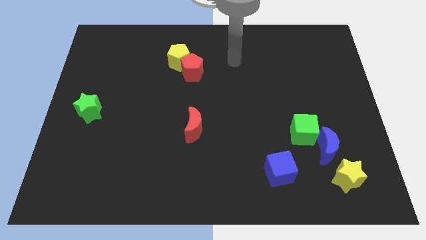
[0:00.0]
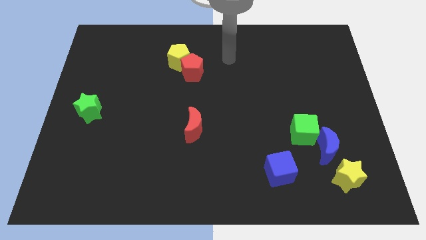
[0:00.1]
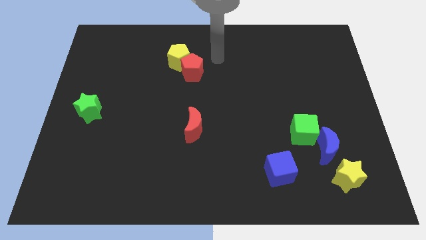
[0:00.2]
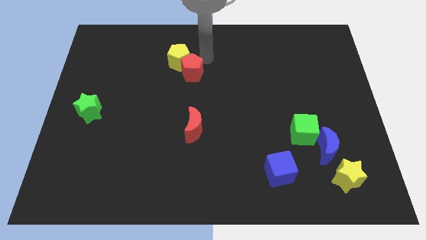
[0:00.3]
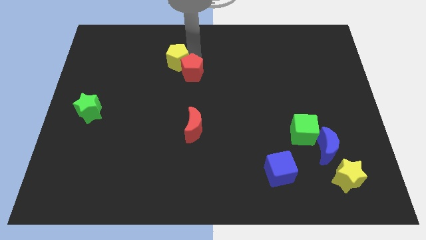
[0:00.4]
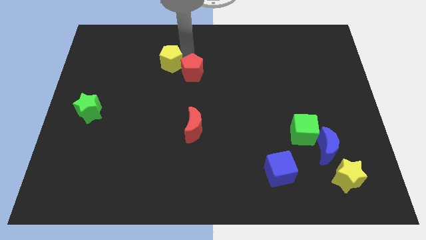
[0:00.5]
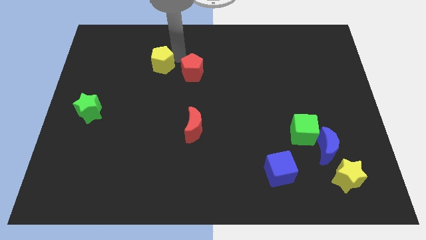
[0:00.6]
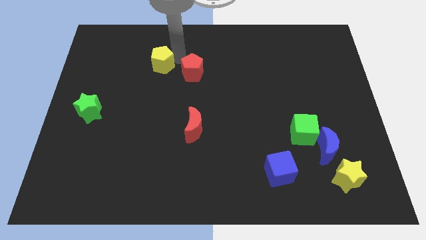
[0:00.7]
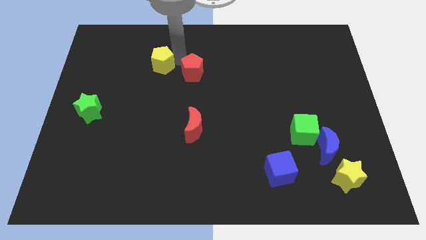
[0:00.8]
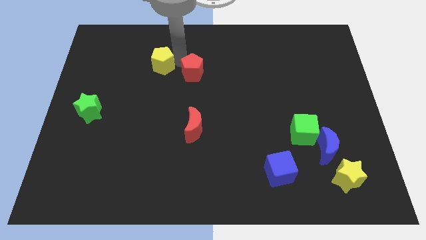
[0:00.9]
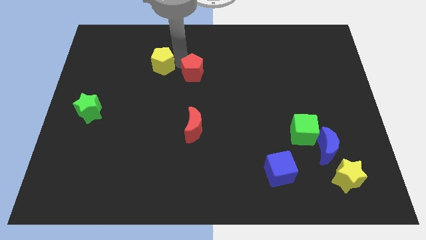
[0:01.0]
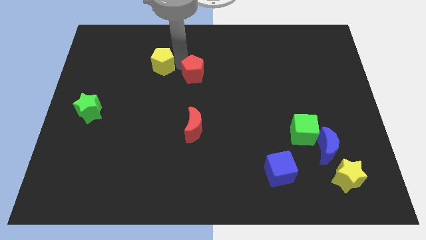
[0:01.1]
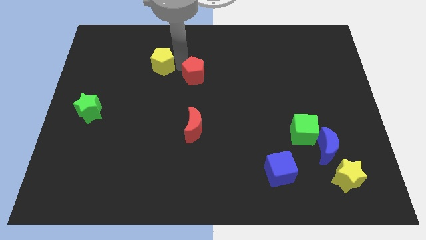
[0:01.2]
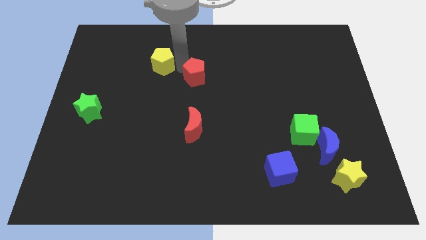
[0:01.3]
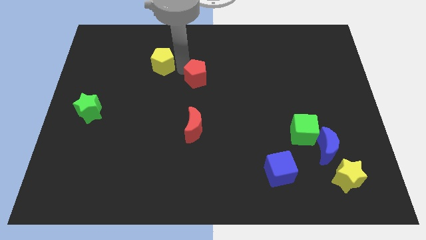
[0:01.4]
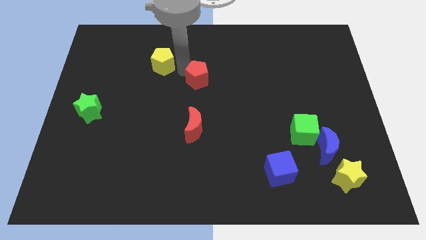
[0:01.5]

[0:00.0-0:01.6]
move the red pentagon away from the yellow pentagon

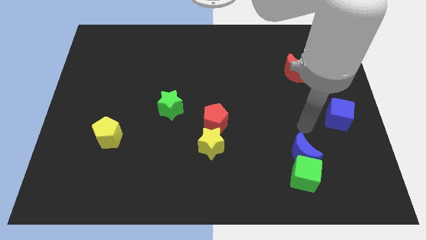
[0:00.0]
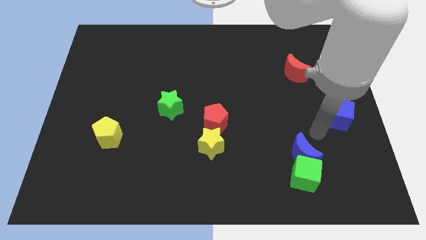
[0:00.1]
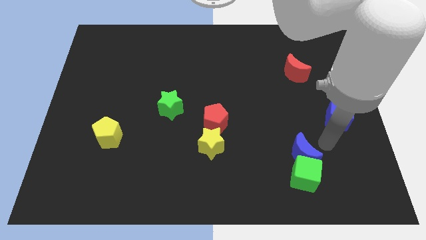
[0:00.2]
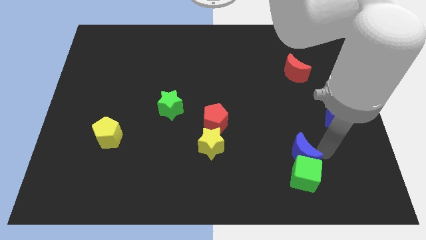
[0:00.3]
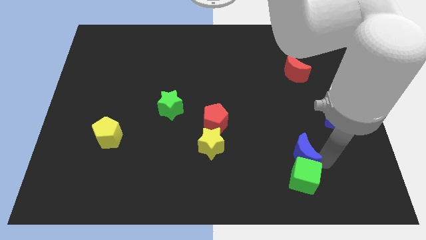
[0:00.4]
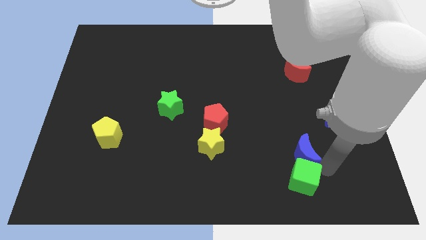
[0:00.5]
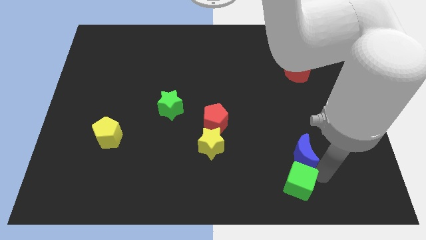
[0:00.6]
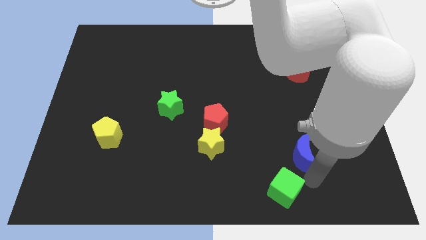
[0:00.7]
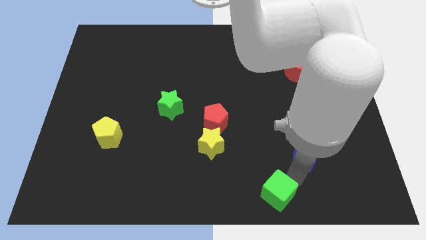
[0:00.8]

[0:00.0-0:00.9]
pull the blue moon apart from the green cube

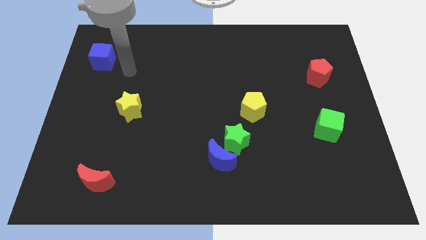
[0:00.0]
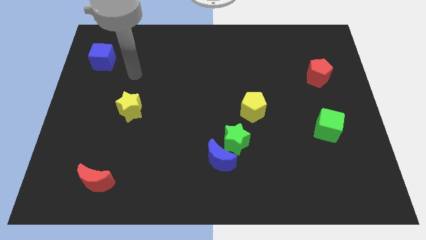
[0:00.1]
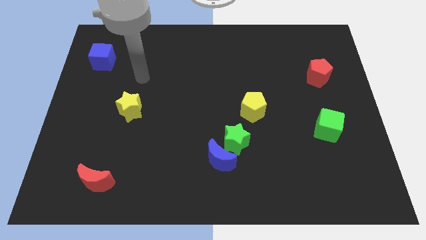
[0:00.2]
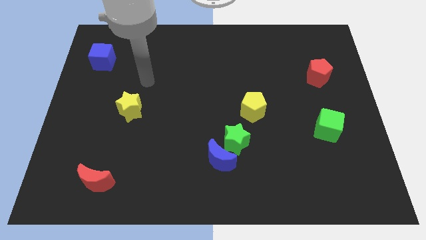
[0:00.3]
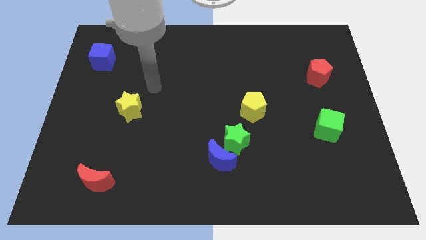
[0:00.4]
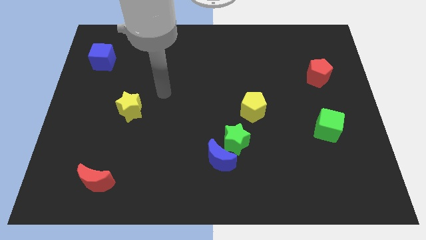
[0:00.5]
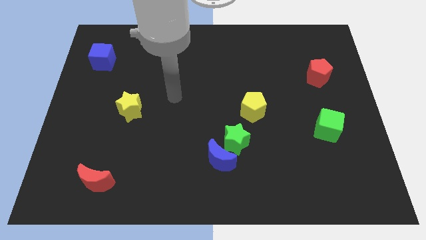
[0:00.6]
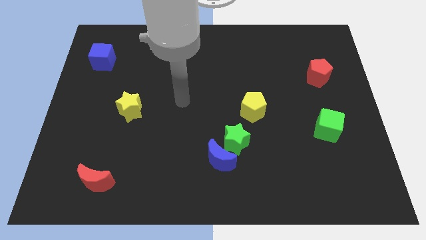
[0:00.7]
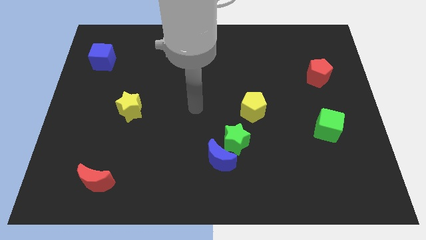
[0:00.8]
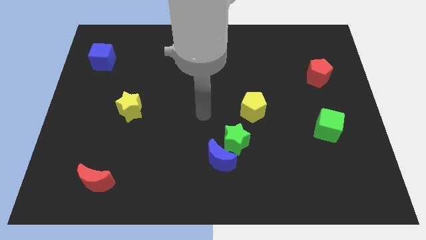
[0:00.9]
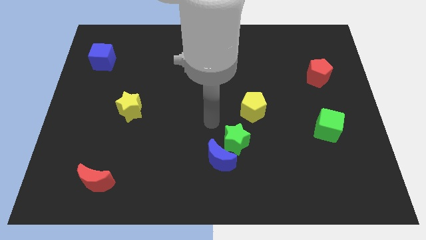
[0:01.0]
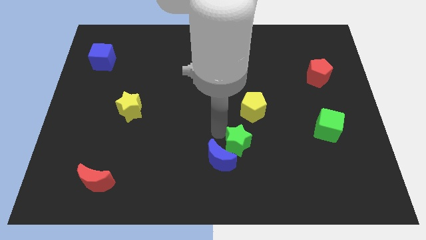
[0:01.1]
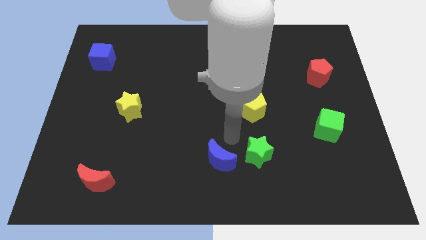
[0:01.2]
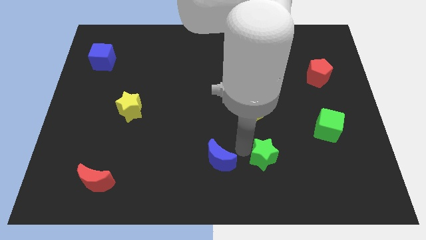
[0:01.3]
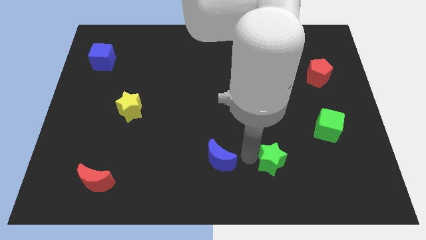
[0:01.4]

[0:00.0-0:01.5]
move the blue moon away from the green star

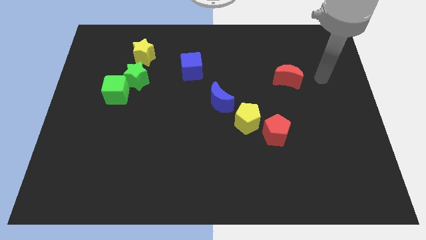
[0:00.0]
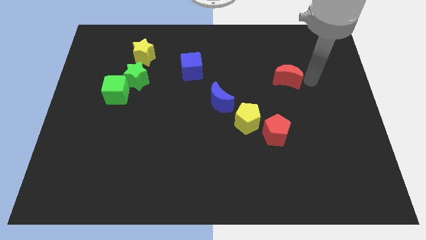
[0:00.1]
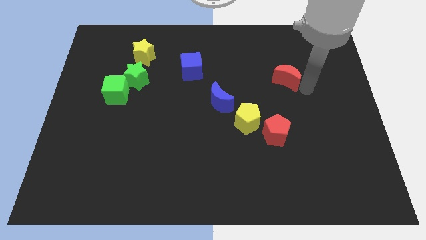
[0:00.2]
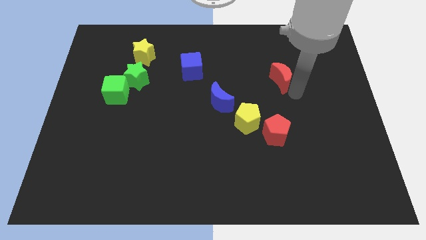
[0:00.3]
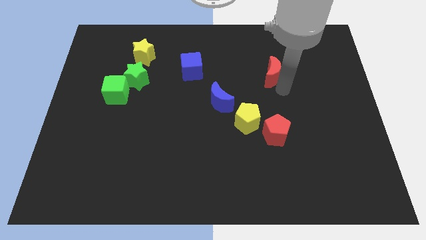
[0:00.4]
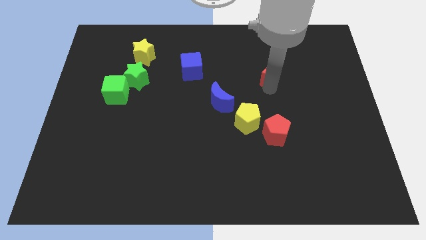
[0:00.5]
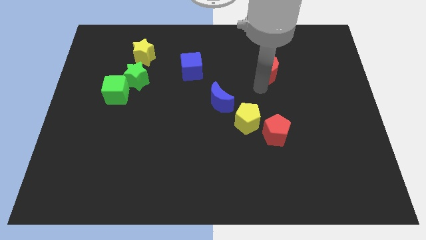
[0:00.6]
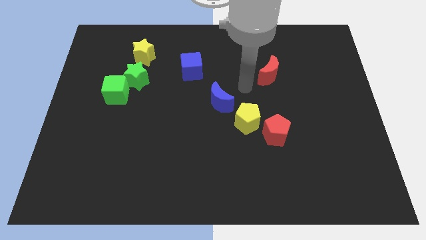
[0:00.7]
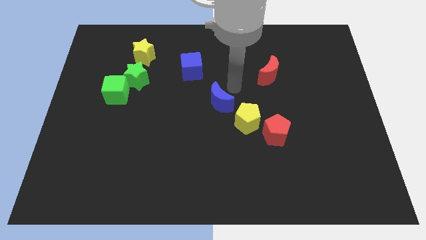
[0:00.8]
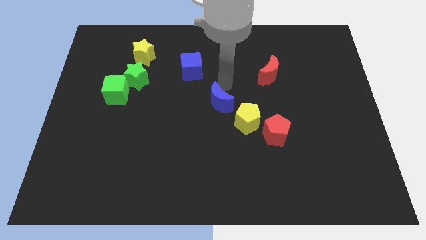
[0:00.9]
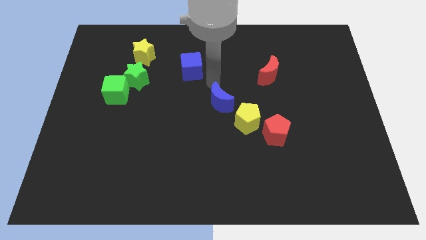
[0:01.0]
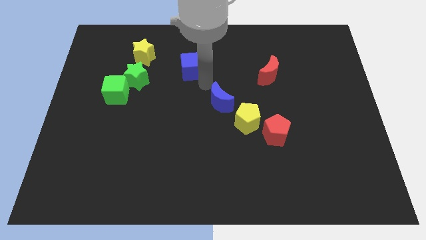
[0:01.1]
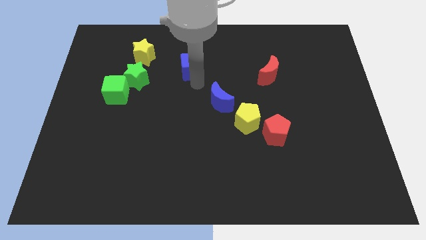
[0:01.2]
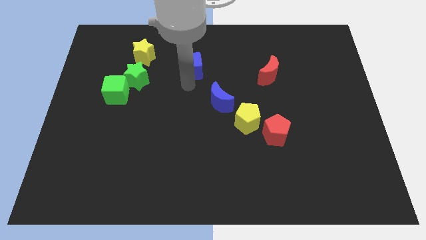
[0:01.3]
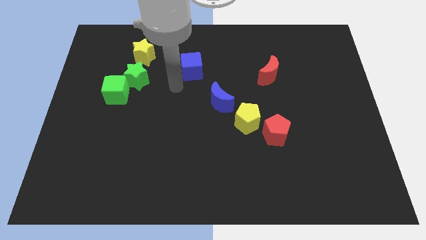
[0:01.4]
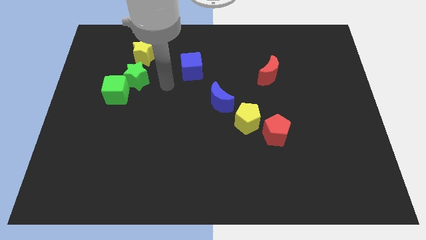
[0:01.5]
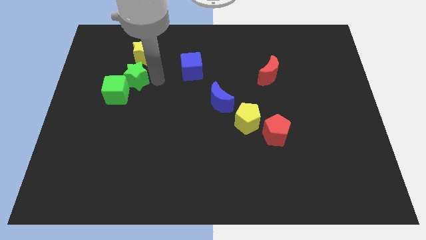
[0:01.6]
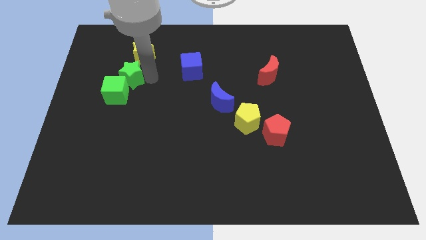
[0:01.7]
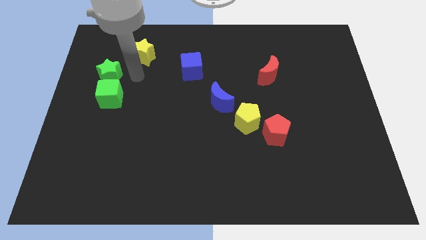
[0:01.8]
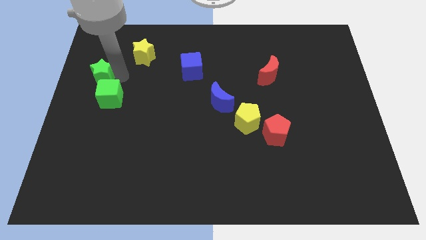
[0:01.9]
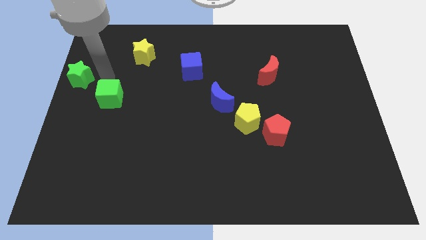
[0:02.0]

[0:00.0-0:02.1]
pull the green cube apart from the green star

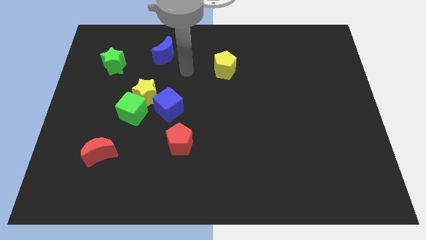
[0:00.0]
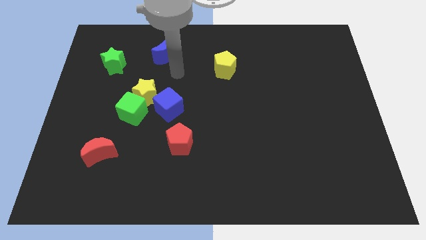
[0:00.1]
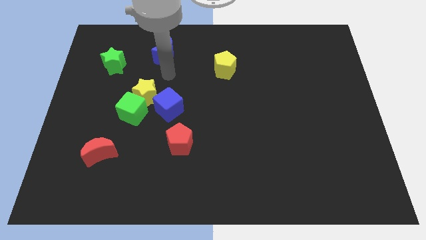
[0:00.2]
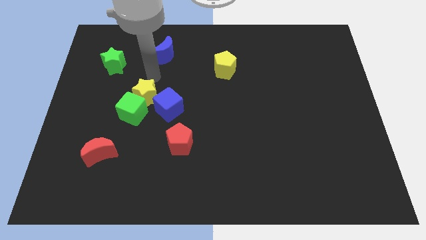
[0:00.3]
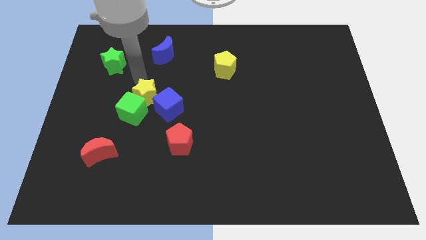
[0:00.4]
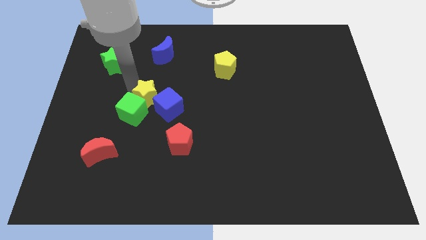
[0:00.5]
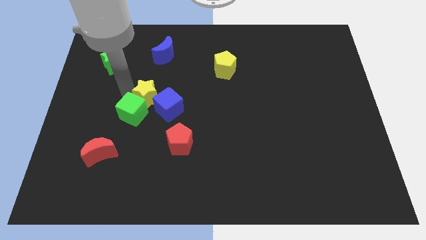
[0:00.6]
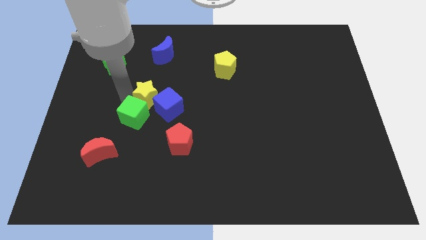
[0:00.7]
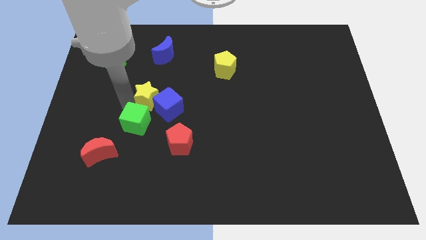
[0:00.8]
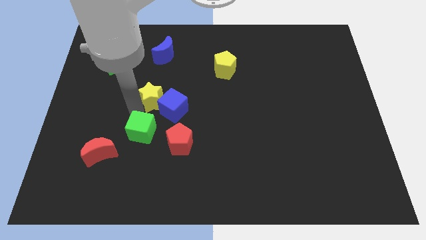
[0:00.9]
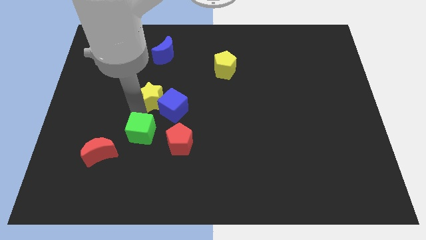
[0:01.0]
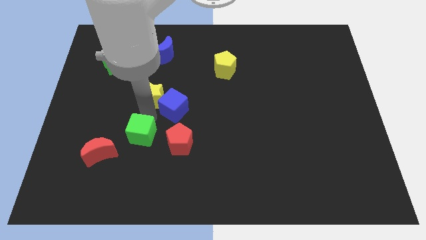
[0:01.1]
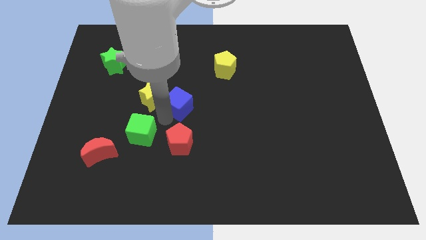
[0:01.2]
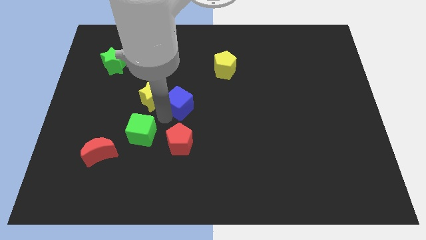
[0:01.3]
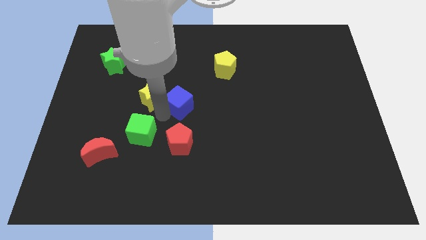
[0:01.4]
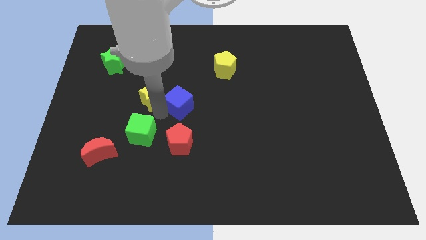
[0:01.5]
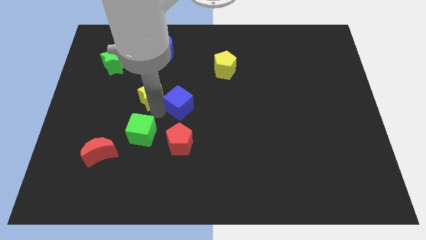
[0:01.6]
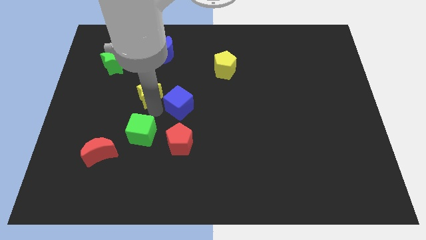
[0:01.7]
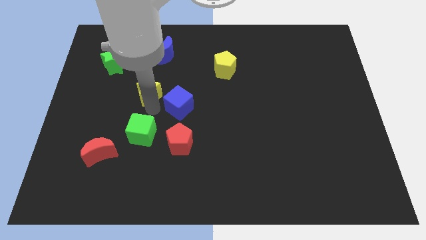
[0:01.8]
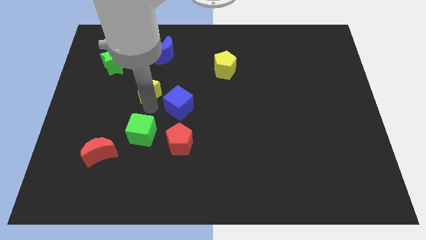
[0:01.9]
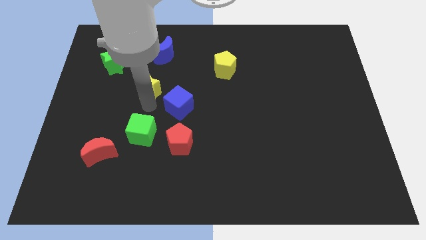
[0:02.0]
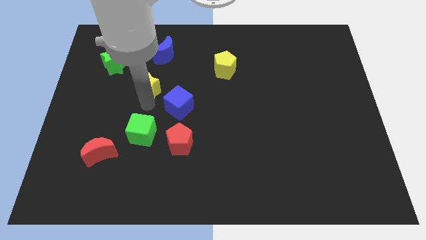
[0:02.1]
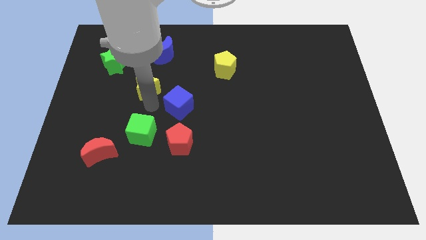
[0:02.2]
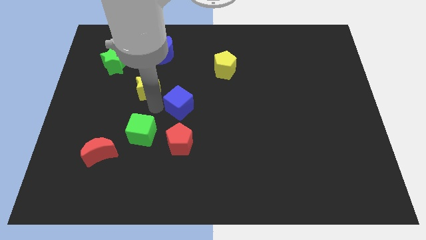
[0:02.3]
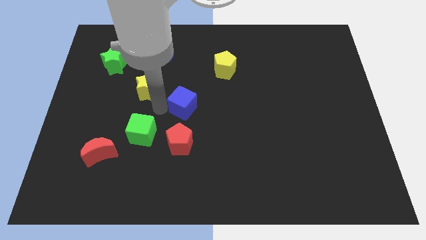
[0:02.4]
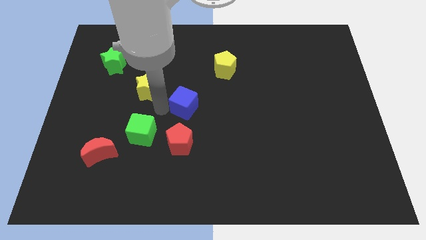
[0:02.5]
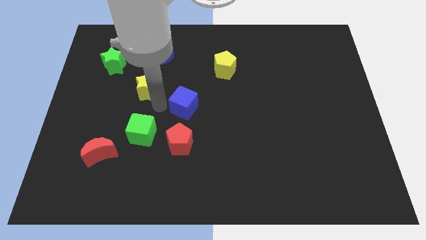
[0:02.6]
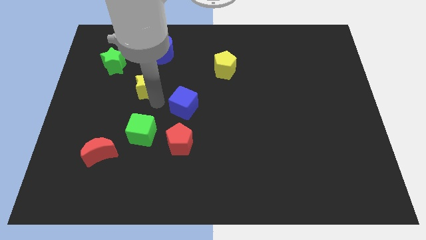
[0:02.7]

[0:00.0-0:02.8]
separate the yellow star from the green cube and blue cube

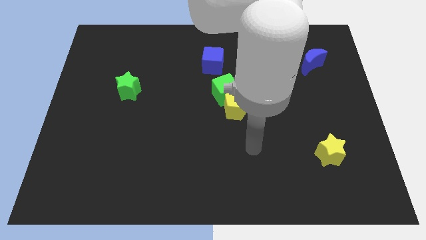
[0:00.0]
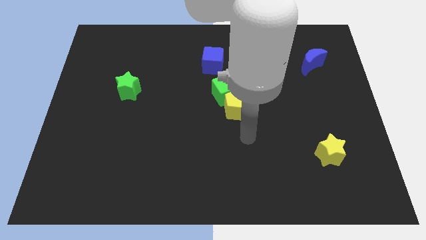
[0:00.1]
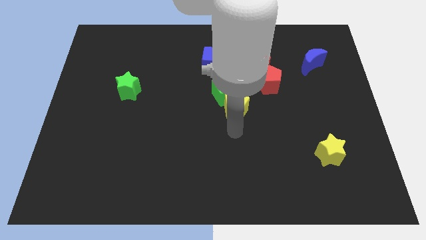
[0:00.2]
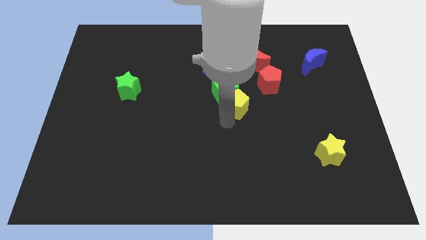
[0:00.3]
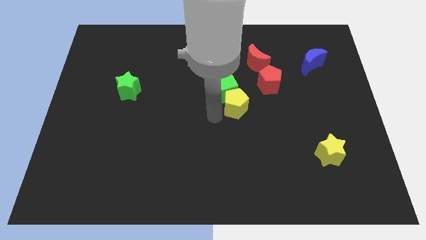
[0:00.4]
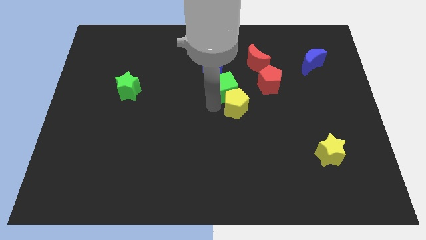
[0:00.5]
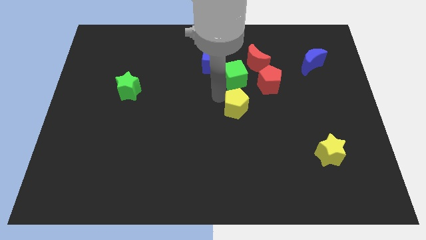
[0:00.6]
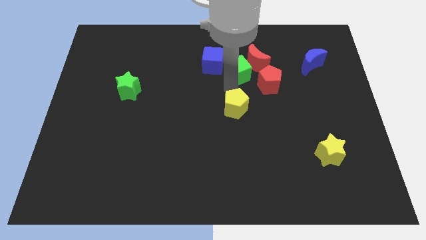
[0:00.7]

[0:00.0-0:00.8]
move the yellow pentagon away from the green cube
